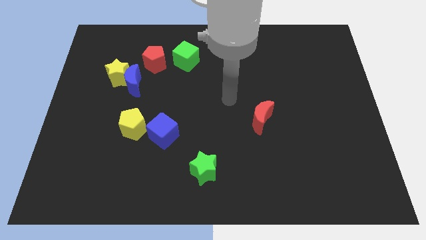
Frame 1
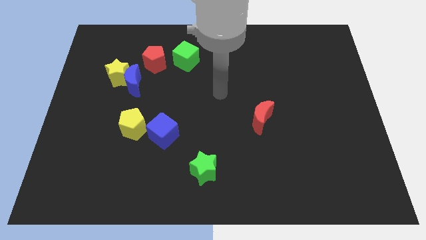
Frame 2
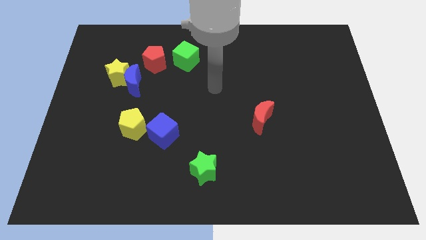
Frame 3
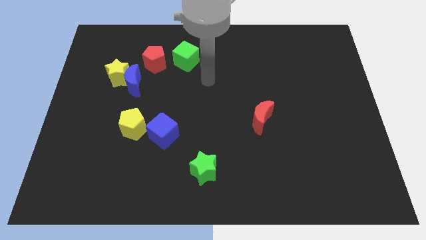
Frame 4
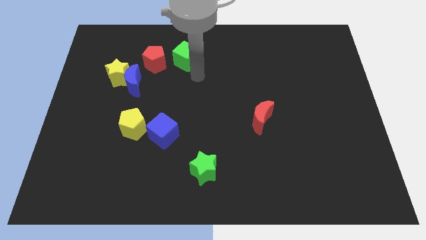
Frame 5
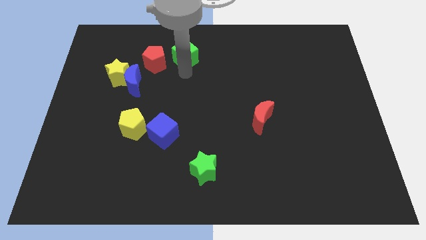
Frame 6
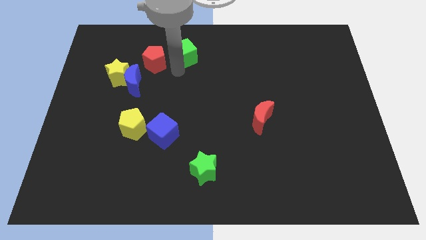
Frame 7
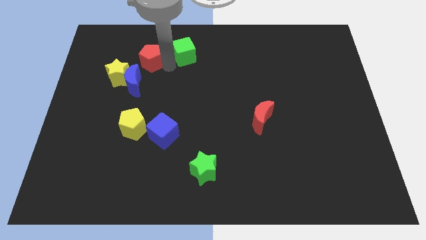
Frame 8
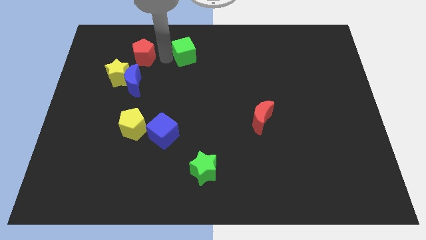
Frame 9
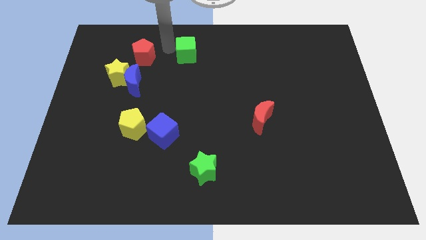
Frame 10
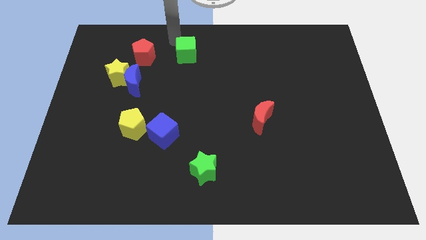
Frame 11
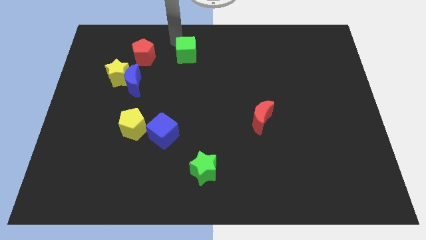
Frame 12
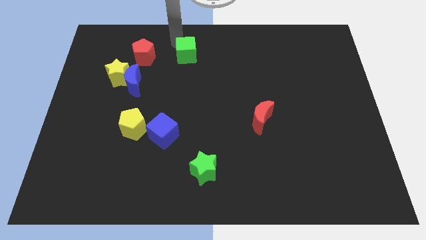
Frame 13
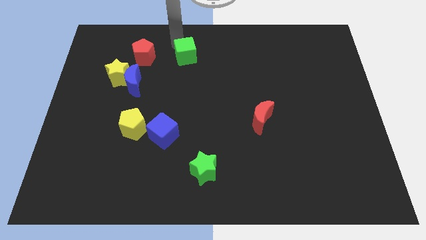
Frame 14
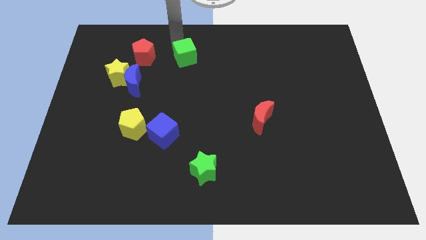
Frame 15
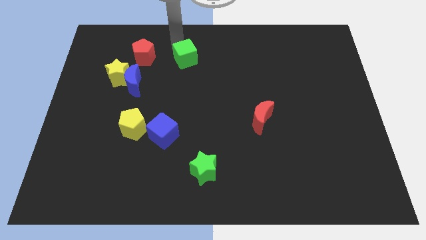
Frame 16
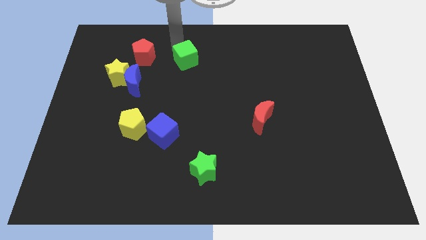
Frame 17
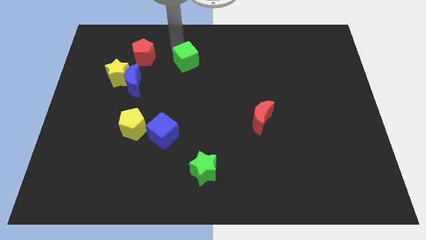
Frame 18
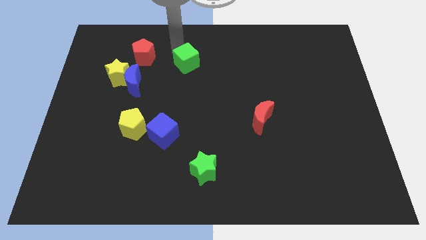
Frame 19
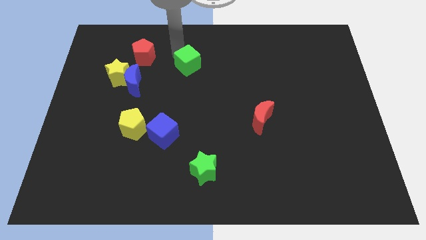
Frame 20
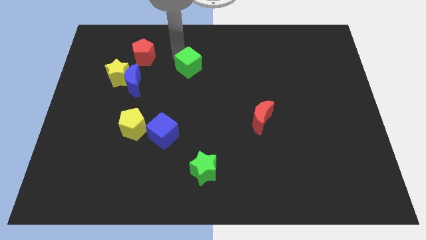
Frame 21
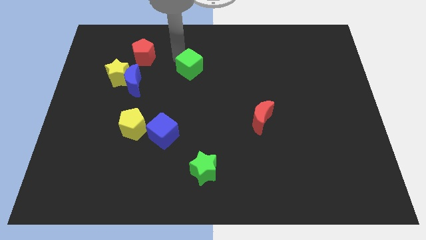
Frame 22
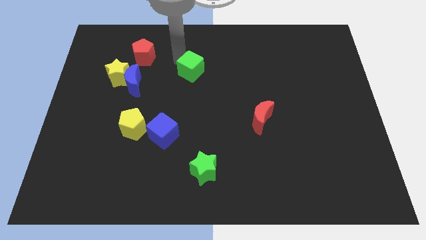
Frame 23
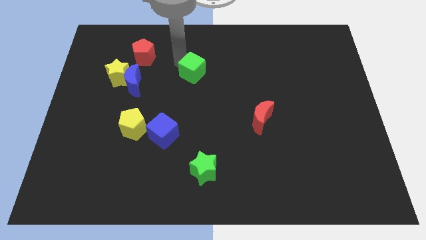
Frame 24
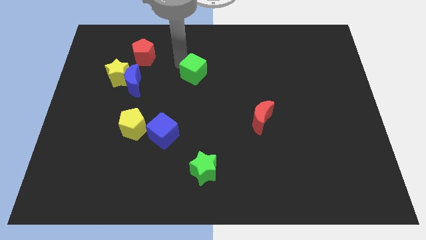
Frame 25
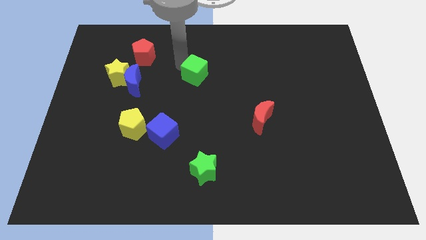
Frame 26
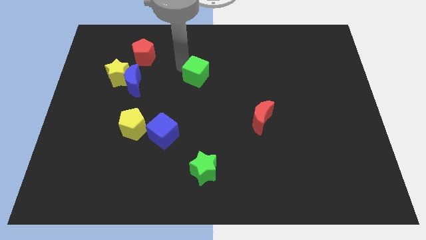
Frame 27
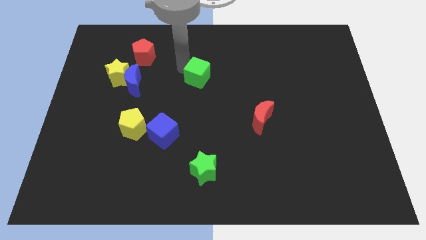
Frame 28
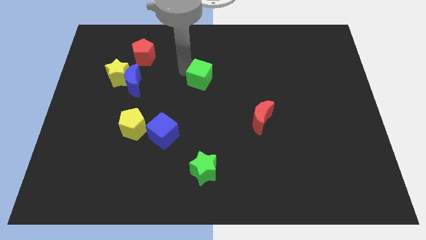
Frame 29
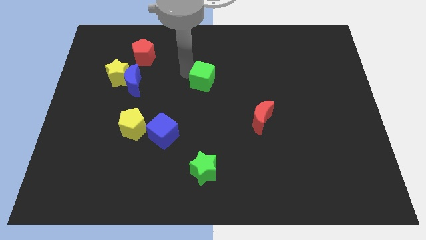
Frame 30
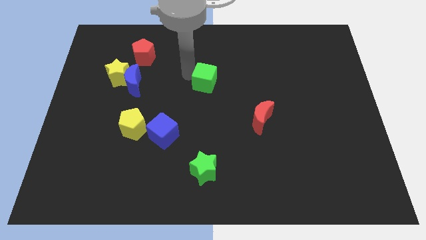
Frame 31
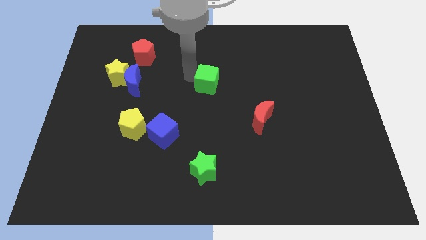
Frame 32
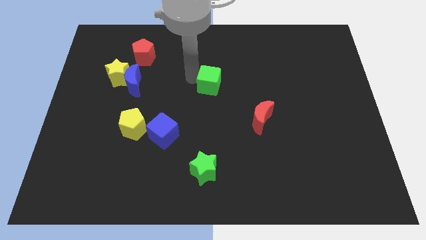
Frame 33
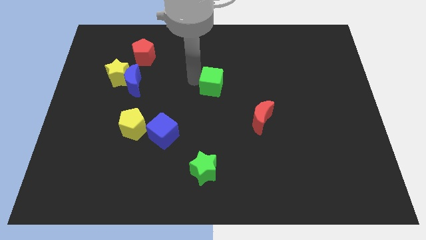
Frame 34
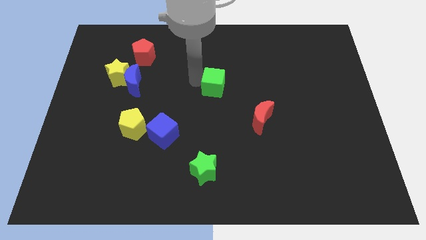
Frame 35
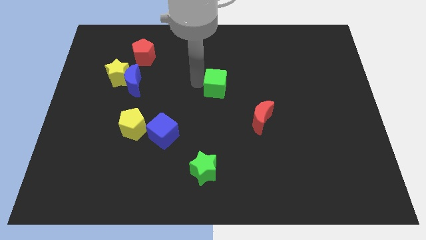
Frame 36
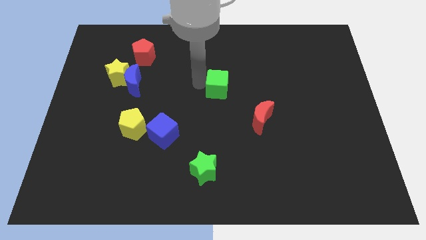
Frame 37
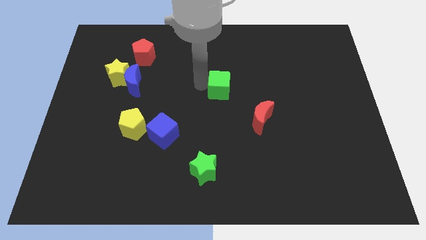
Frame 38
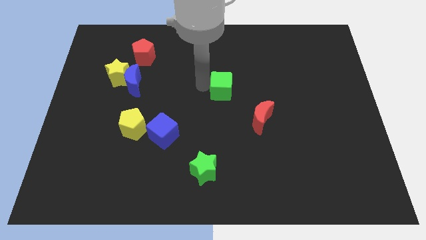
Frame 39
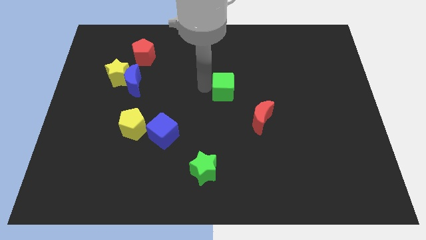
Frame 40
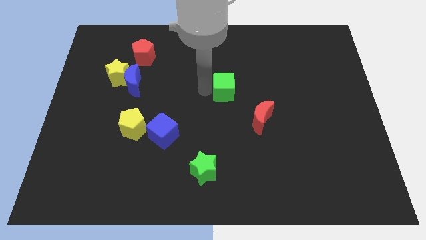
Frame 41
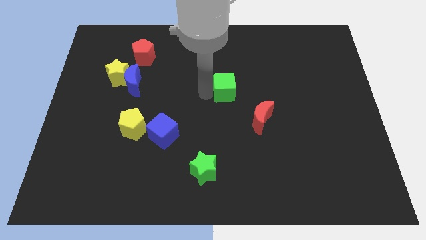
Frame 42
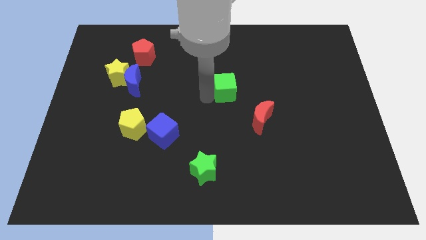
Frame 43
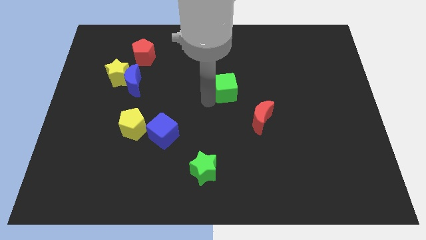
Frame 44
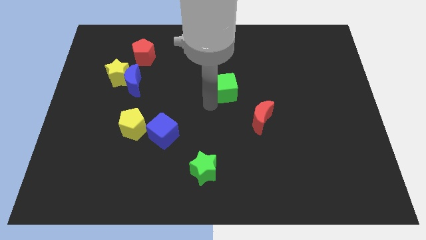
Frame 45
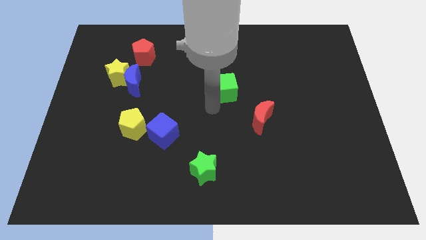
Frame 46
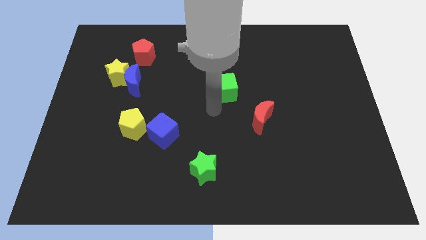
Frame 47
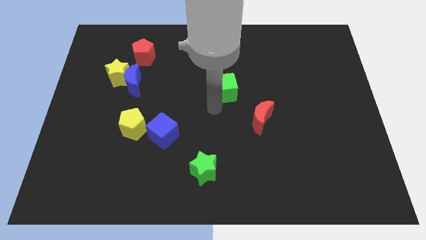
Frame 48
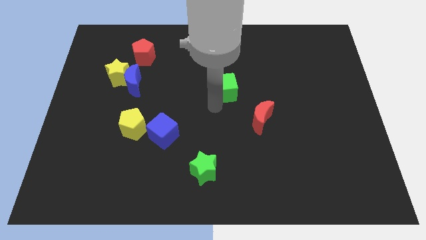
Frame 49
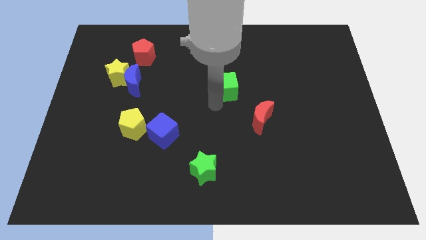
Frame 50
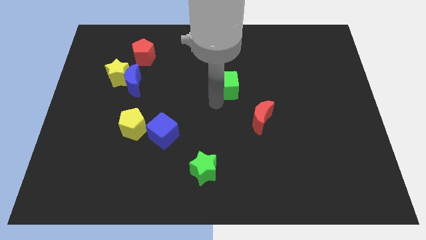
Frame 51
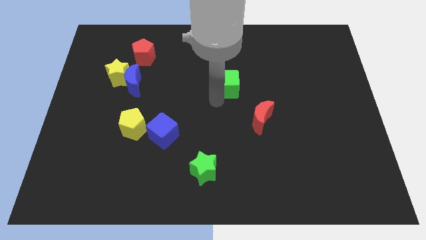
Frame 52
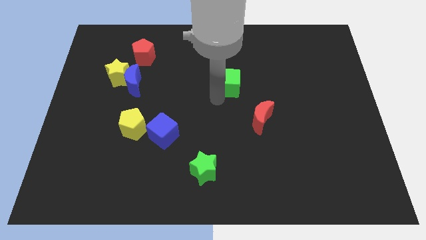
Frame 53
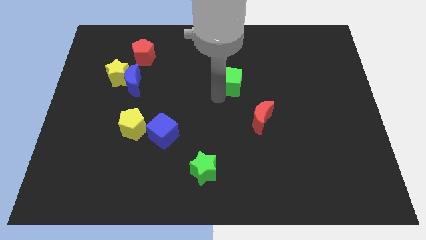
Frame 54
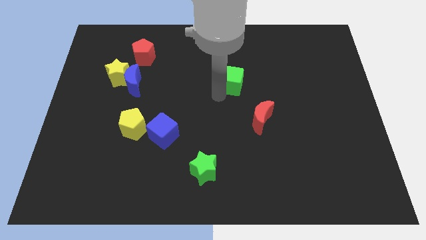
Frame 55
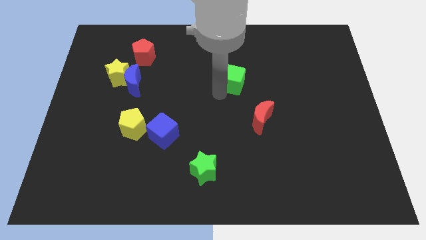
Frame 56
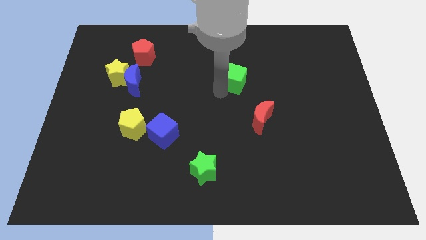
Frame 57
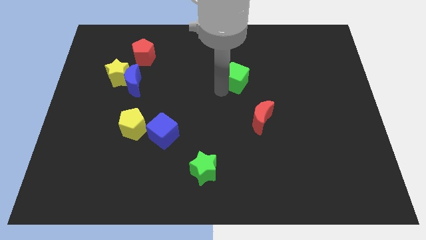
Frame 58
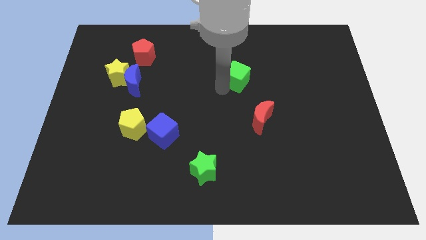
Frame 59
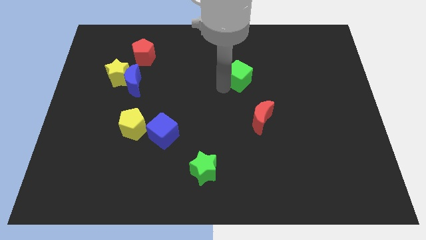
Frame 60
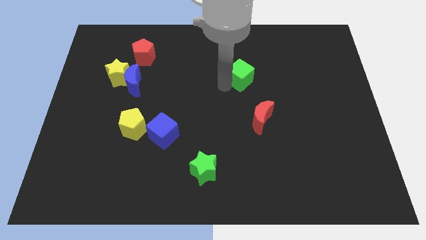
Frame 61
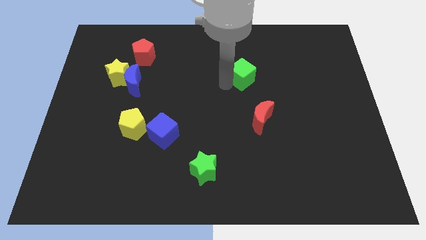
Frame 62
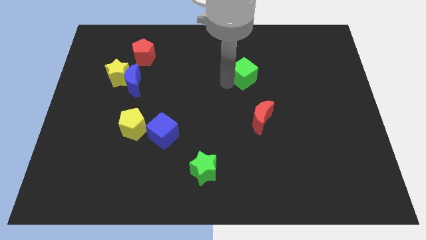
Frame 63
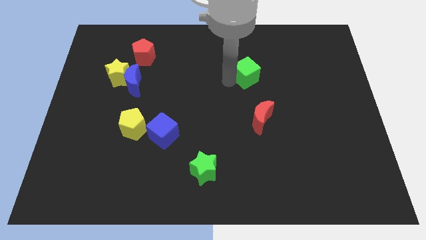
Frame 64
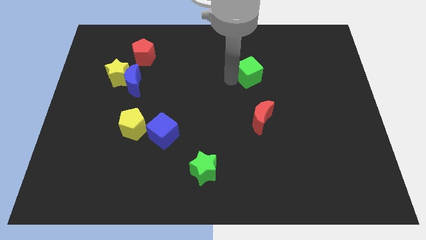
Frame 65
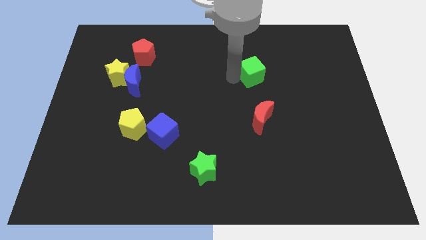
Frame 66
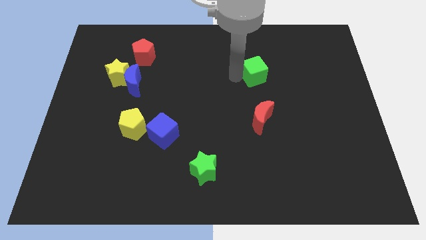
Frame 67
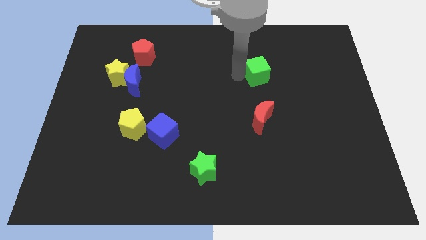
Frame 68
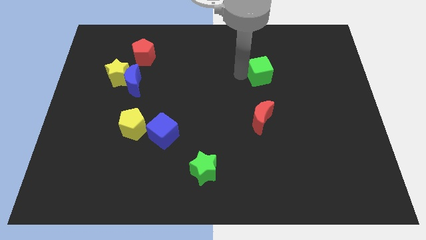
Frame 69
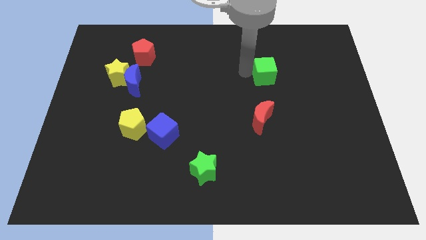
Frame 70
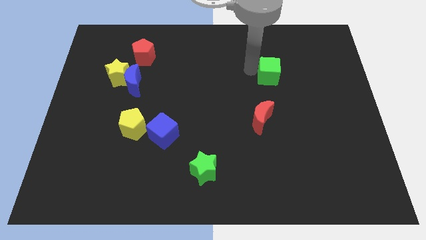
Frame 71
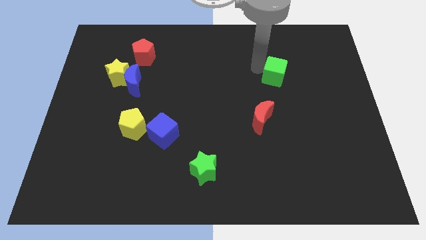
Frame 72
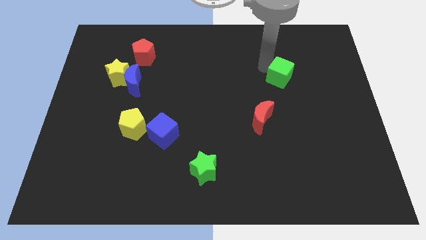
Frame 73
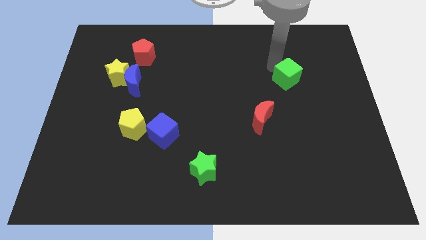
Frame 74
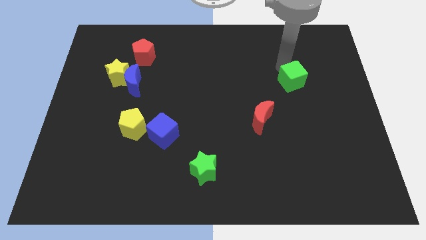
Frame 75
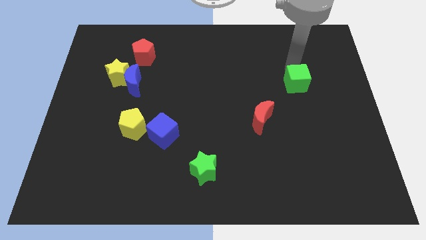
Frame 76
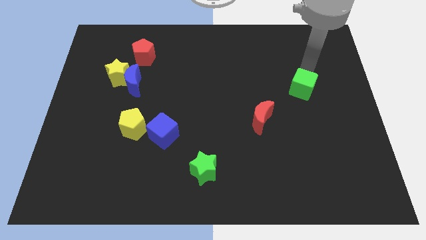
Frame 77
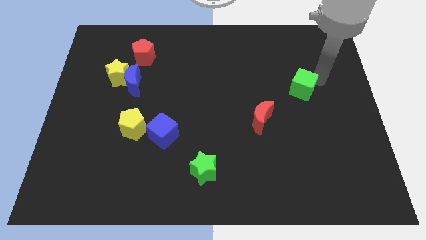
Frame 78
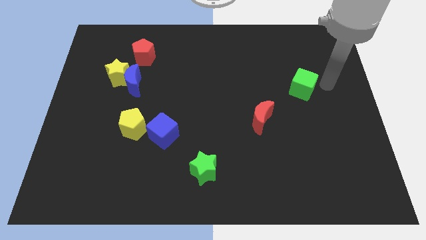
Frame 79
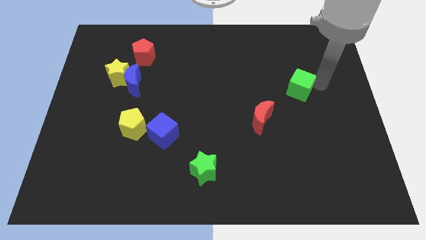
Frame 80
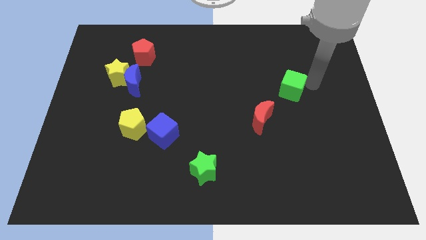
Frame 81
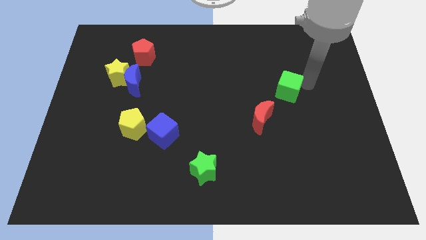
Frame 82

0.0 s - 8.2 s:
slide the green cube diagonally down and to the right

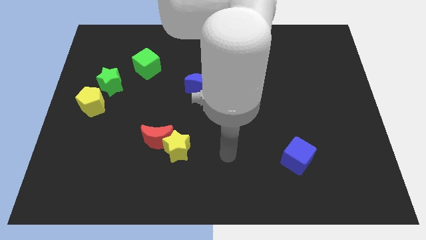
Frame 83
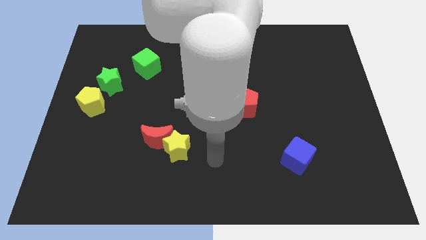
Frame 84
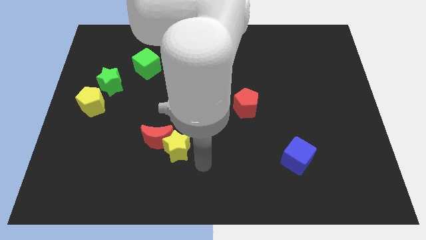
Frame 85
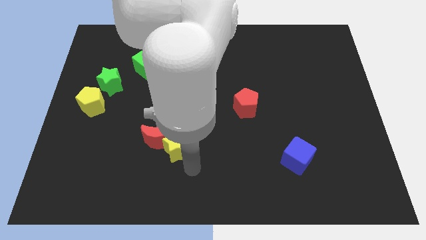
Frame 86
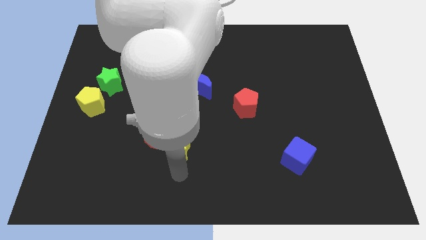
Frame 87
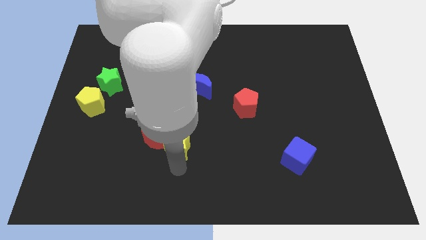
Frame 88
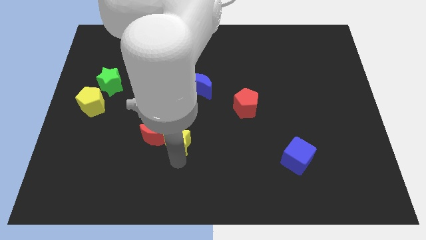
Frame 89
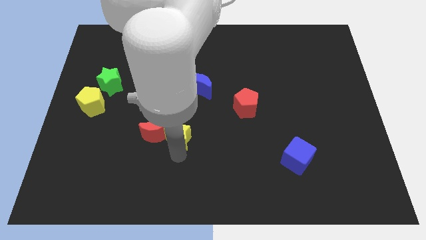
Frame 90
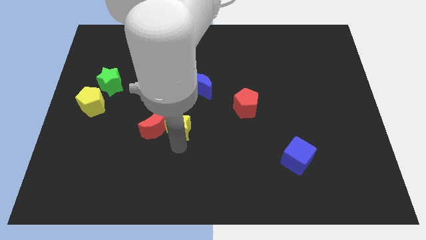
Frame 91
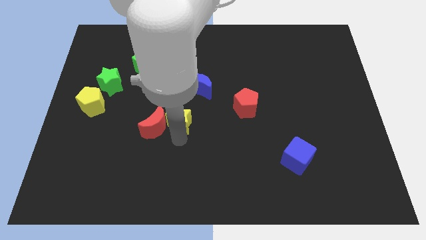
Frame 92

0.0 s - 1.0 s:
slightly move the yellow star up
